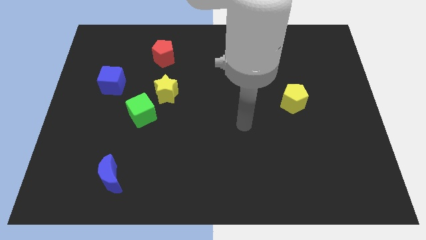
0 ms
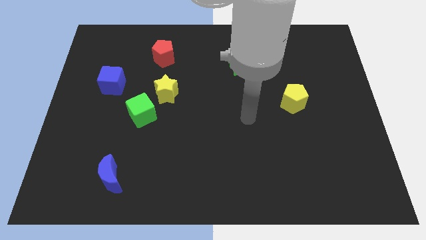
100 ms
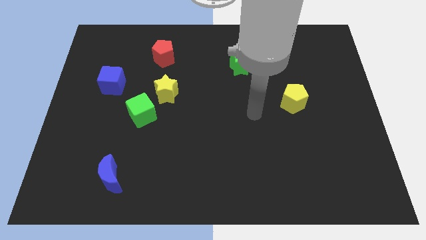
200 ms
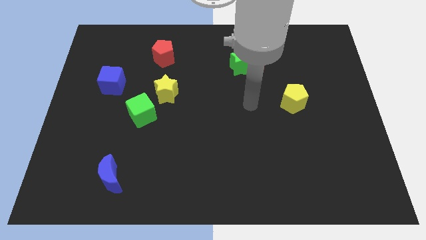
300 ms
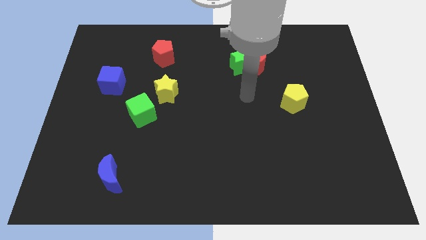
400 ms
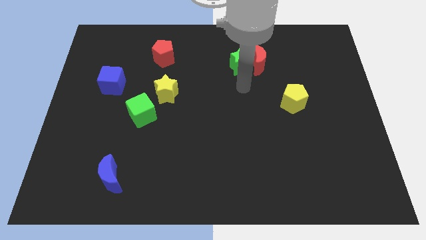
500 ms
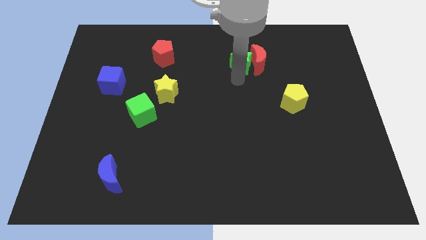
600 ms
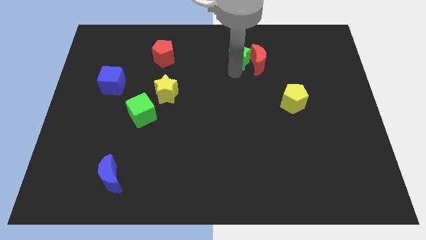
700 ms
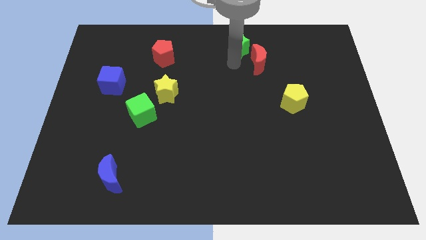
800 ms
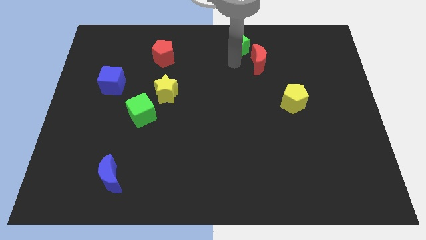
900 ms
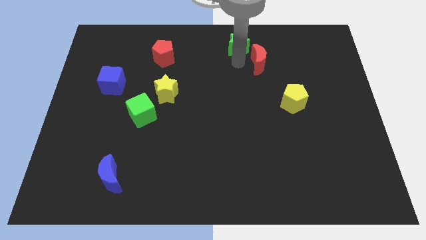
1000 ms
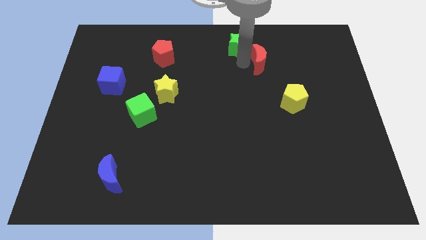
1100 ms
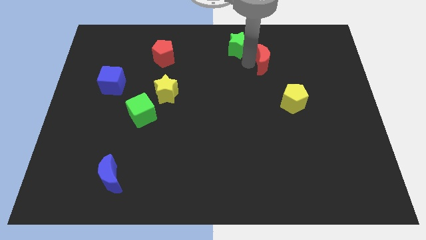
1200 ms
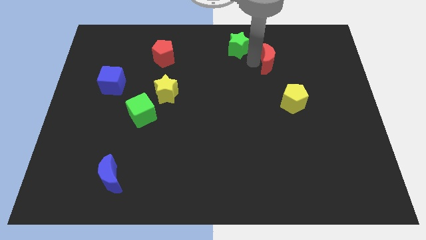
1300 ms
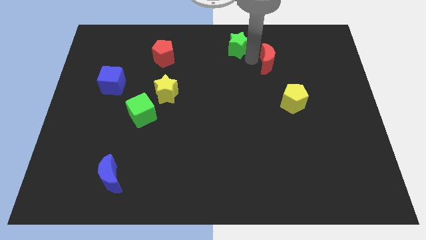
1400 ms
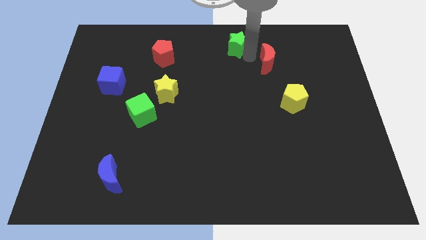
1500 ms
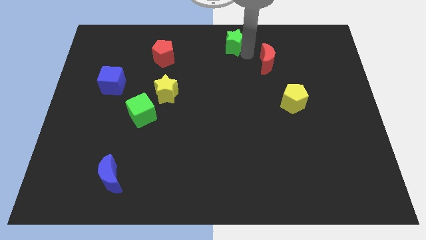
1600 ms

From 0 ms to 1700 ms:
move the red moon away from the green star

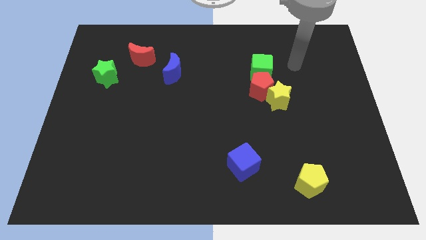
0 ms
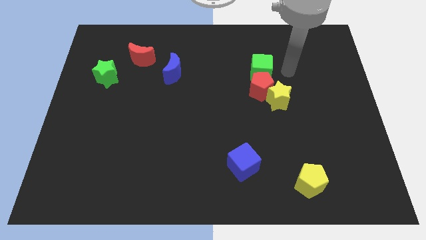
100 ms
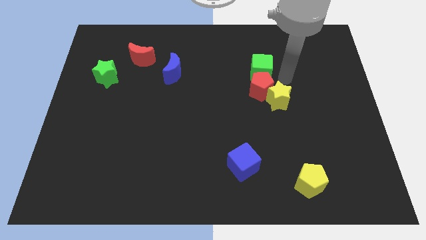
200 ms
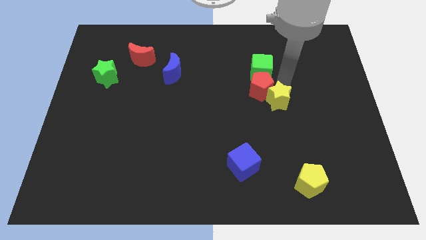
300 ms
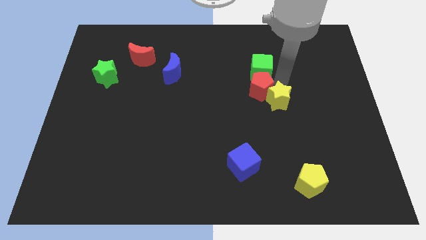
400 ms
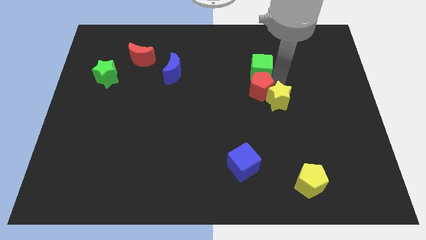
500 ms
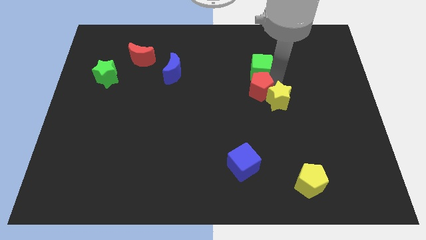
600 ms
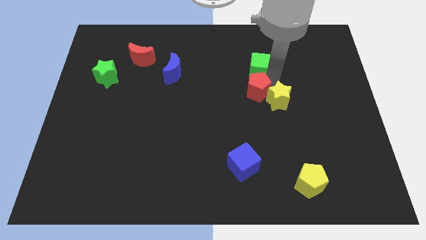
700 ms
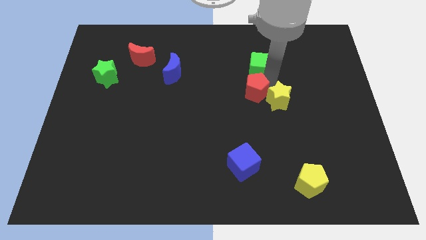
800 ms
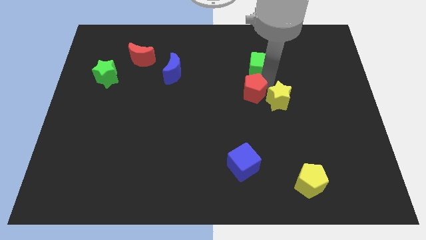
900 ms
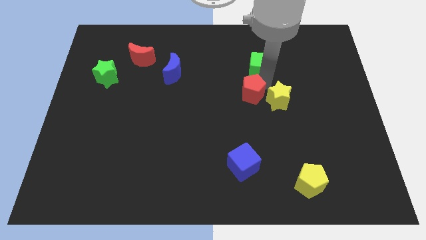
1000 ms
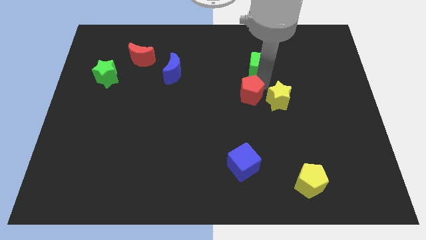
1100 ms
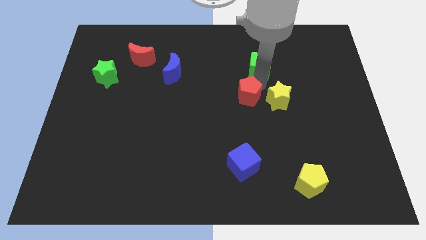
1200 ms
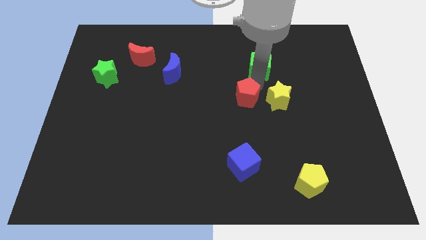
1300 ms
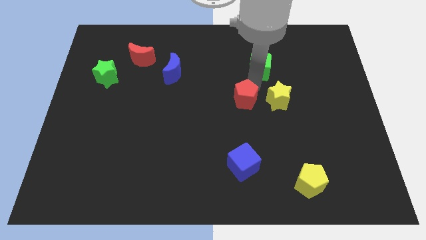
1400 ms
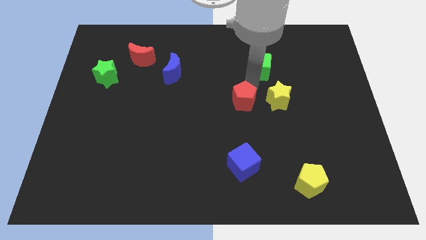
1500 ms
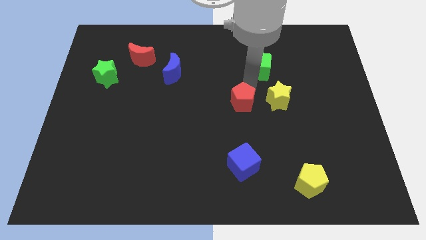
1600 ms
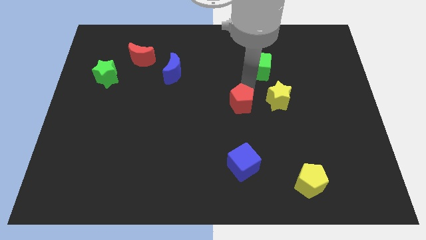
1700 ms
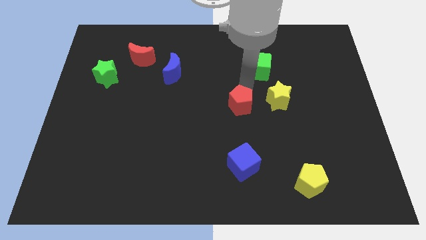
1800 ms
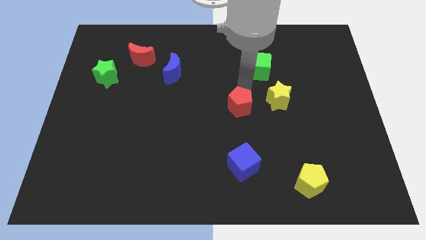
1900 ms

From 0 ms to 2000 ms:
move the red pentagon away from the yellow star and green cube

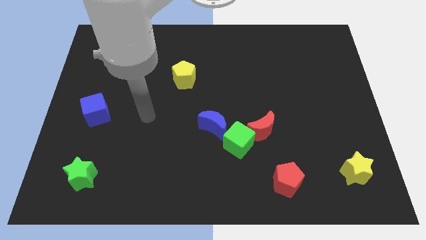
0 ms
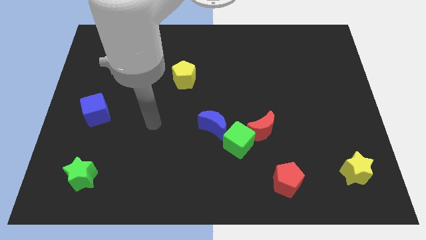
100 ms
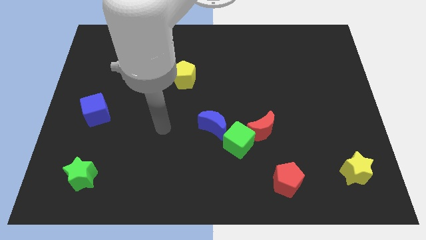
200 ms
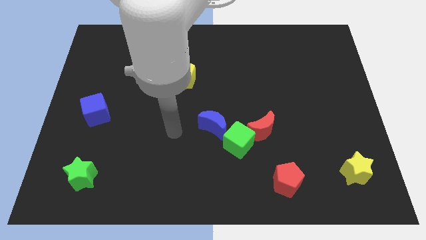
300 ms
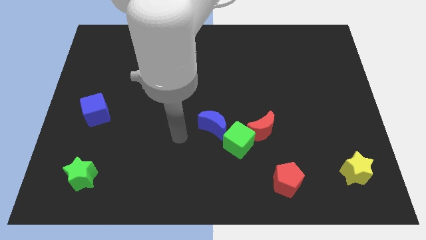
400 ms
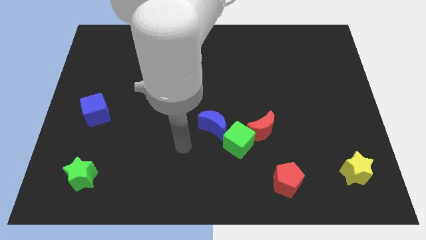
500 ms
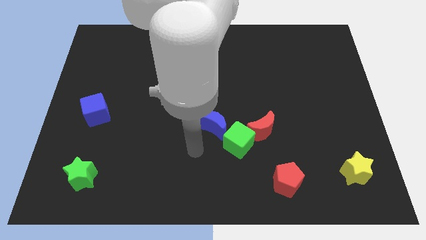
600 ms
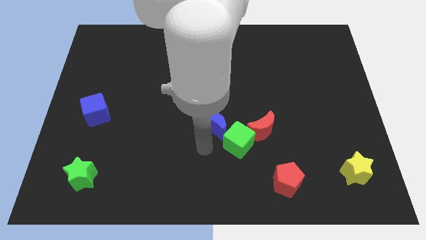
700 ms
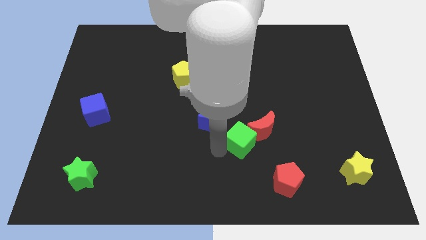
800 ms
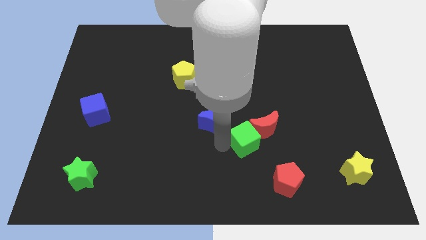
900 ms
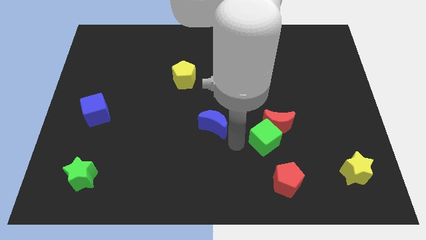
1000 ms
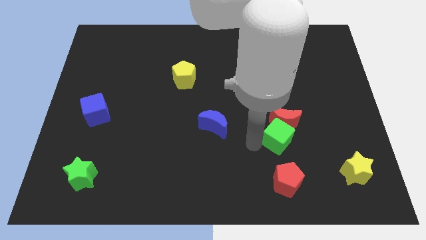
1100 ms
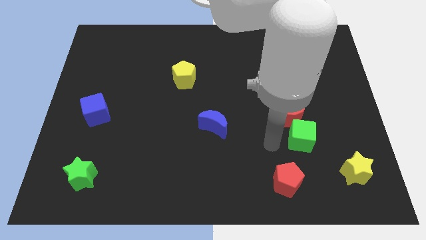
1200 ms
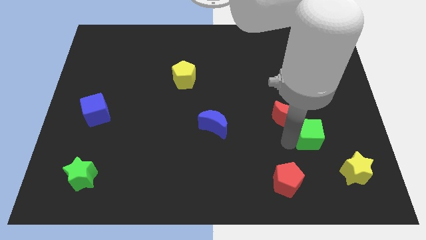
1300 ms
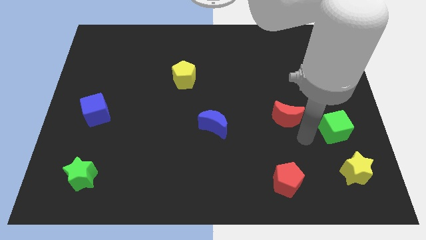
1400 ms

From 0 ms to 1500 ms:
pull the red moon apart from the green cube

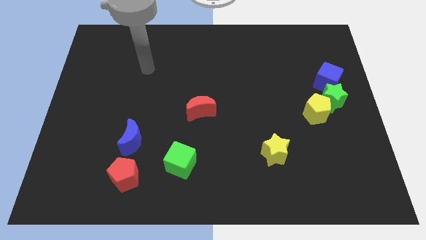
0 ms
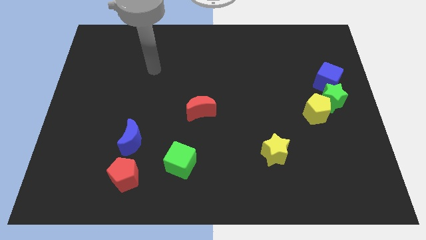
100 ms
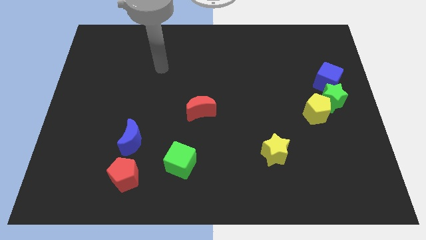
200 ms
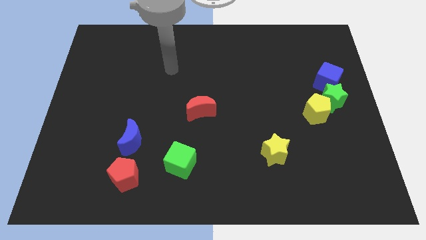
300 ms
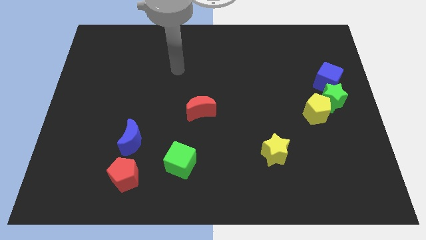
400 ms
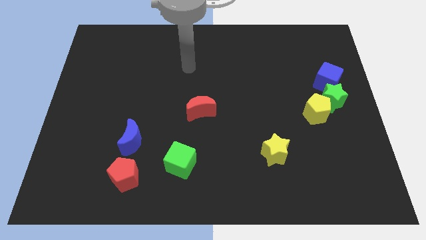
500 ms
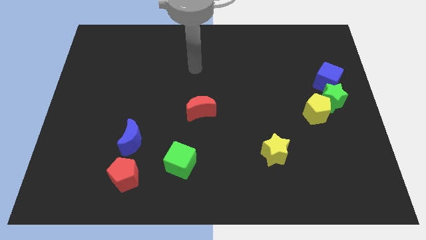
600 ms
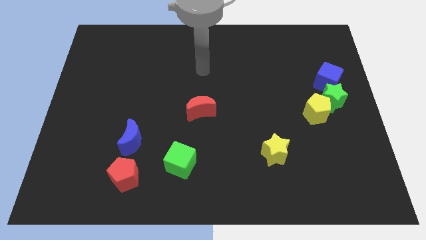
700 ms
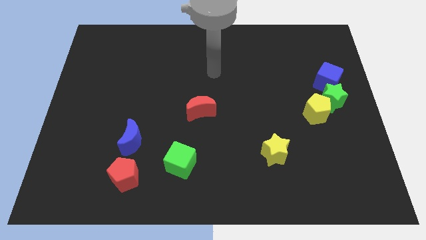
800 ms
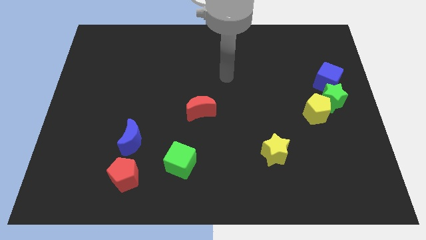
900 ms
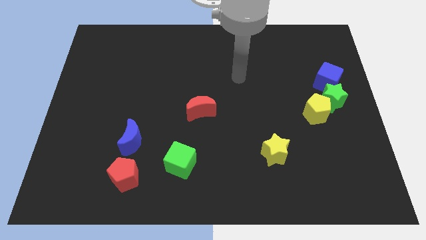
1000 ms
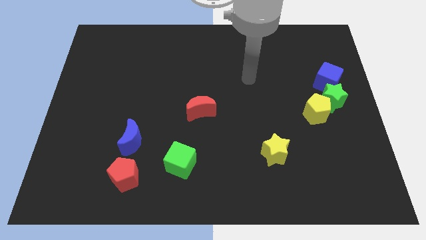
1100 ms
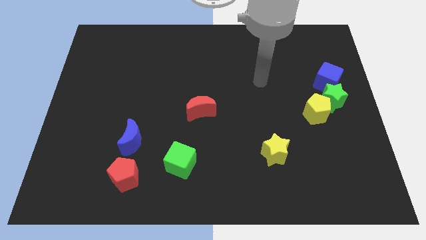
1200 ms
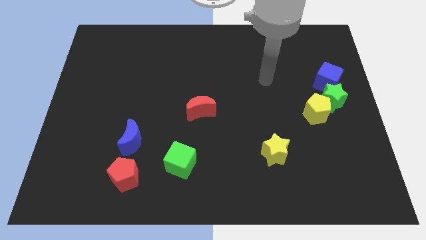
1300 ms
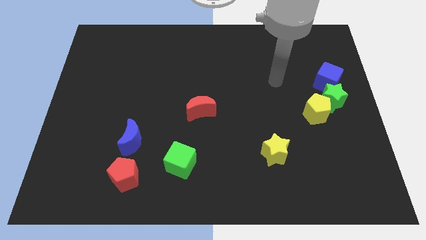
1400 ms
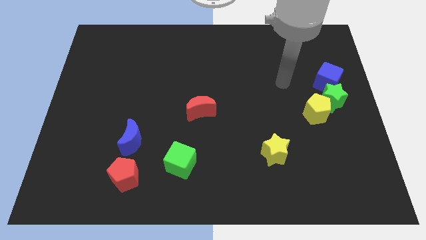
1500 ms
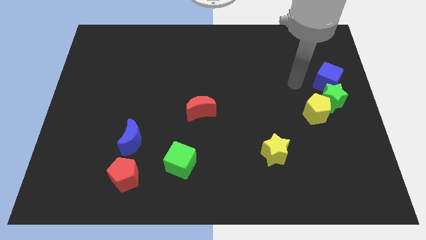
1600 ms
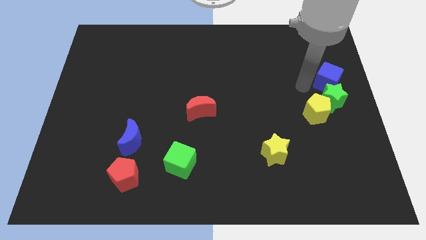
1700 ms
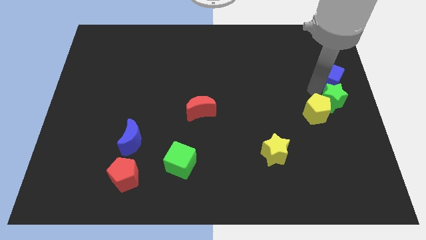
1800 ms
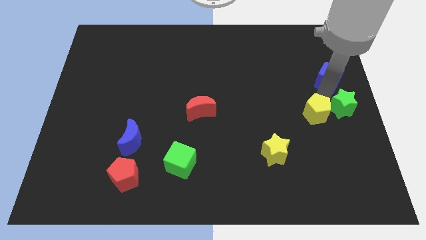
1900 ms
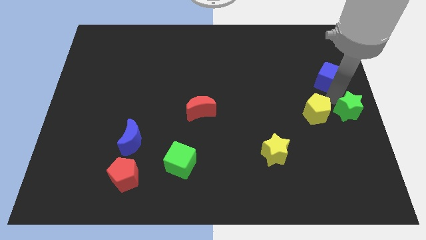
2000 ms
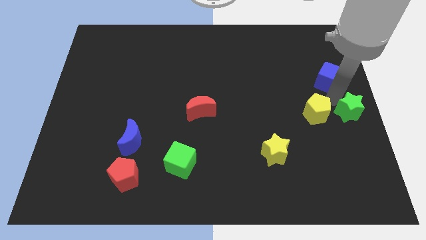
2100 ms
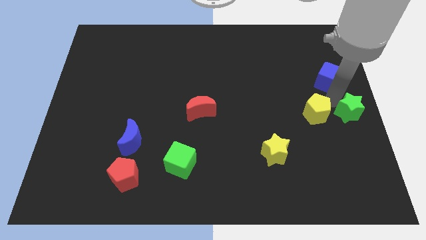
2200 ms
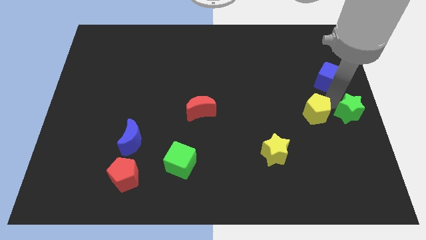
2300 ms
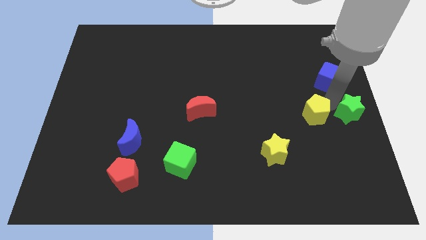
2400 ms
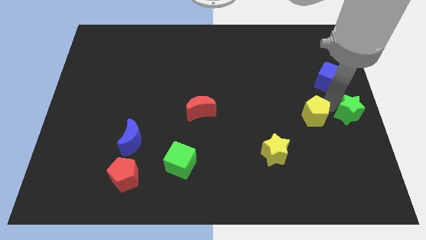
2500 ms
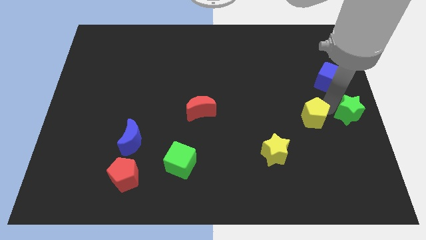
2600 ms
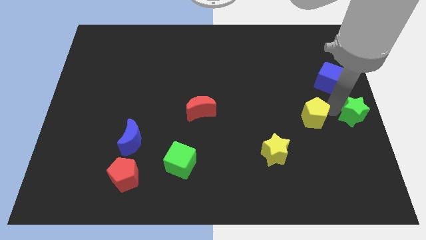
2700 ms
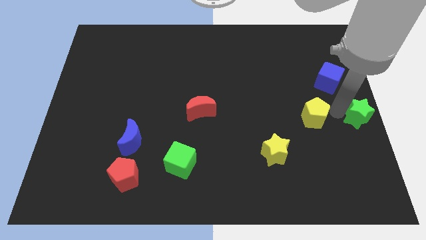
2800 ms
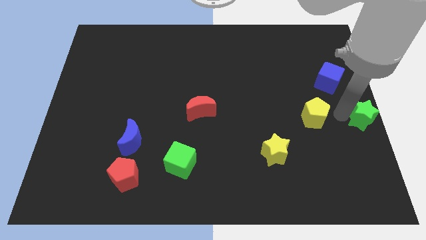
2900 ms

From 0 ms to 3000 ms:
pull the yellow pentagon apart from the green star

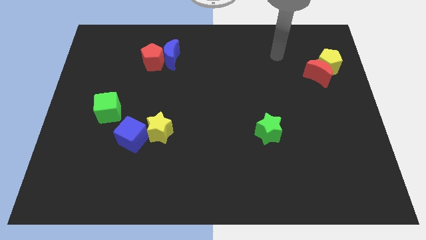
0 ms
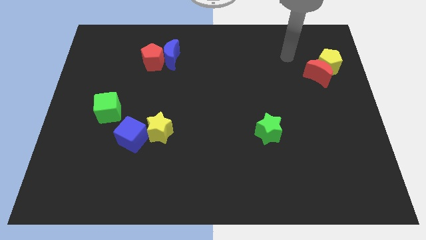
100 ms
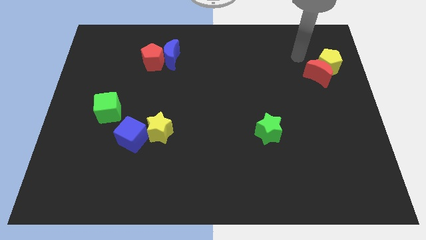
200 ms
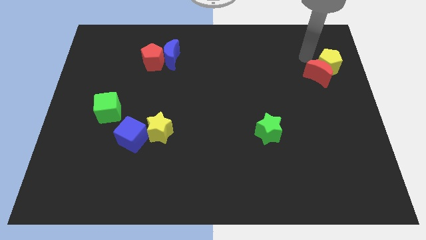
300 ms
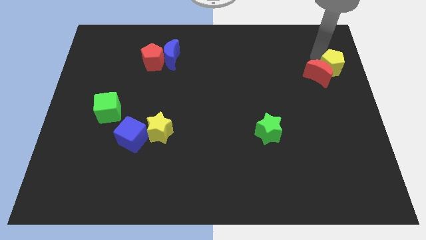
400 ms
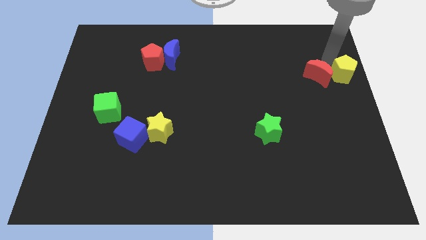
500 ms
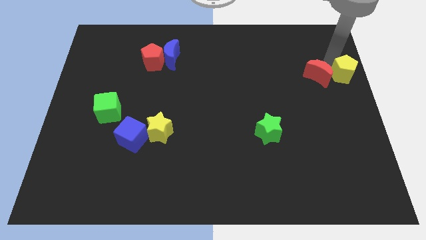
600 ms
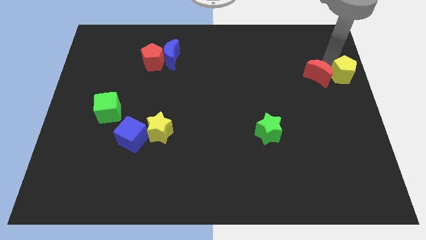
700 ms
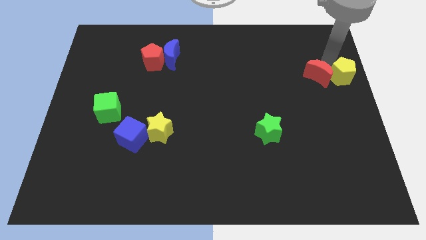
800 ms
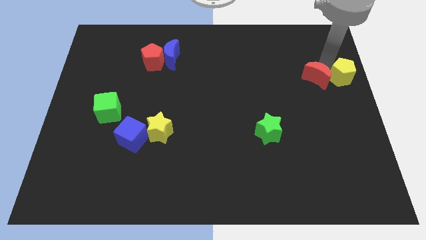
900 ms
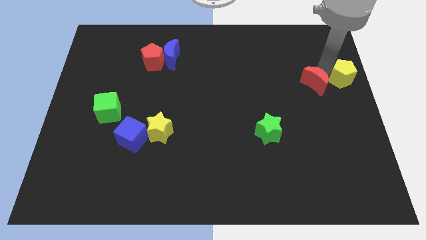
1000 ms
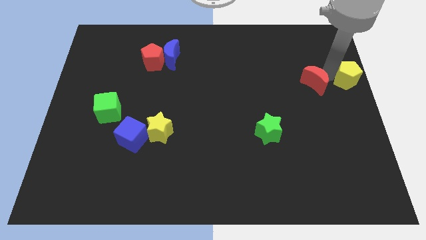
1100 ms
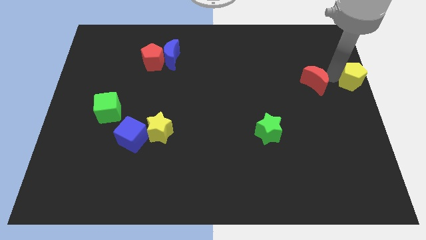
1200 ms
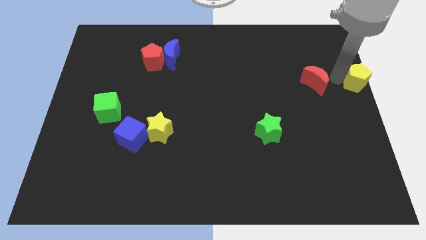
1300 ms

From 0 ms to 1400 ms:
pull the red moon apart from the yellow pentagon
